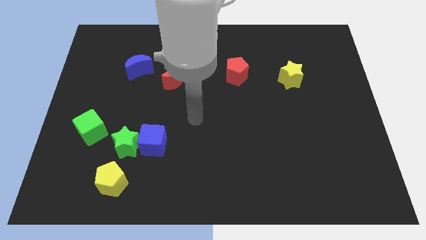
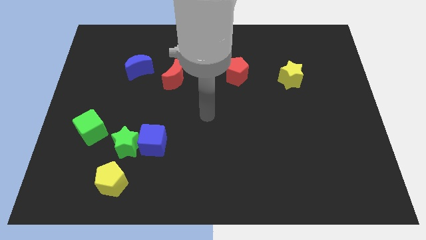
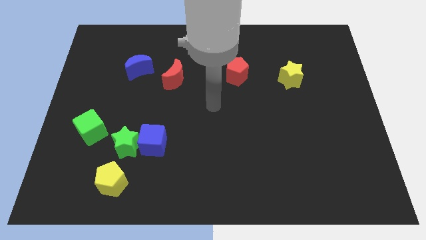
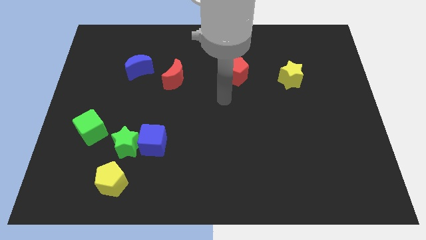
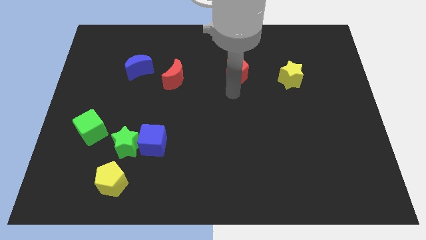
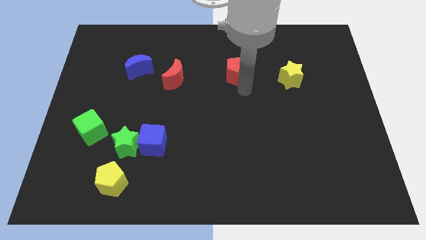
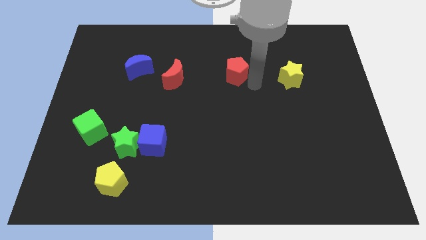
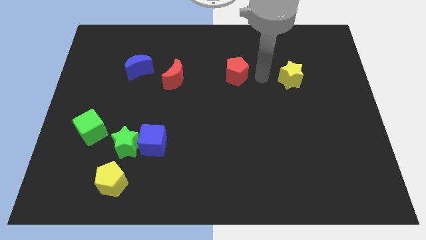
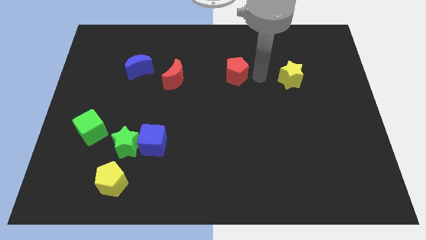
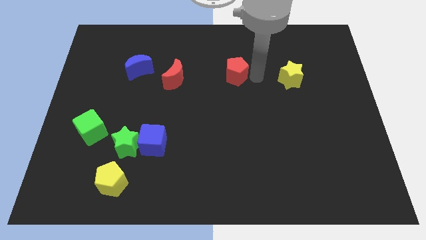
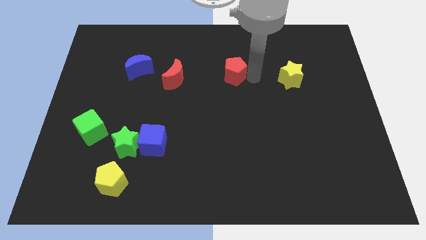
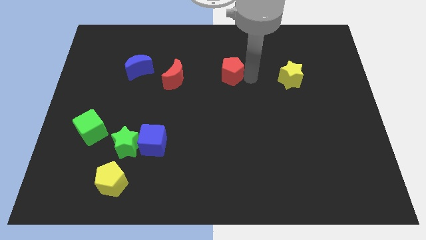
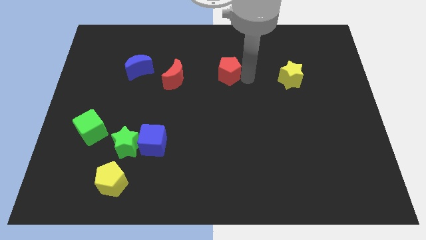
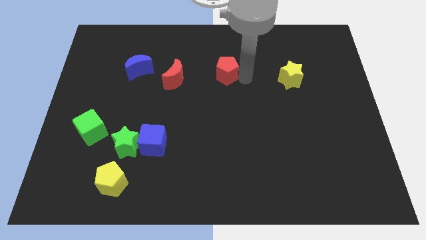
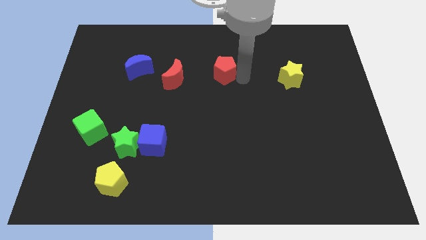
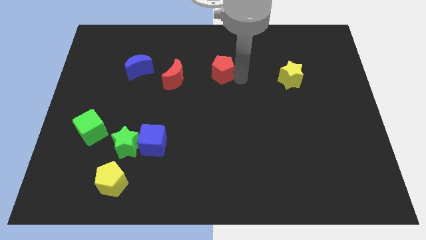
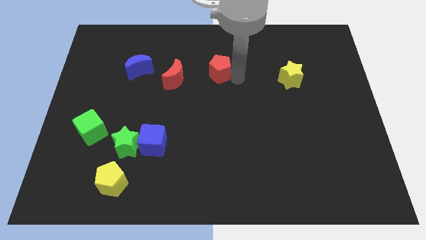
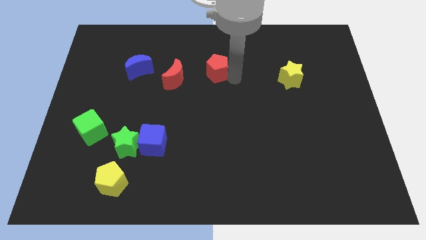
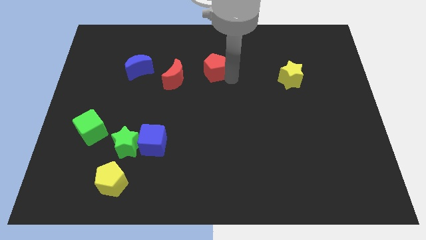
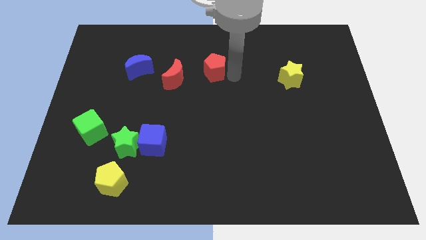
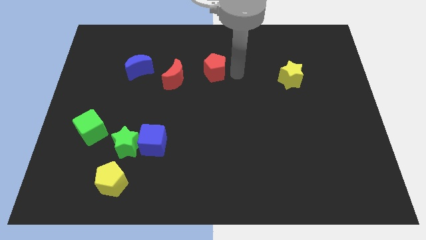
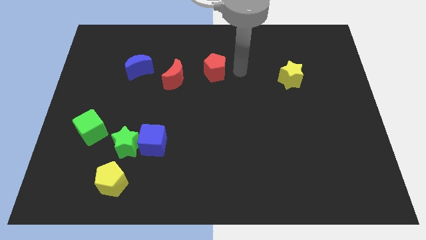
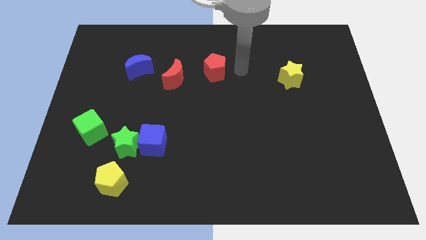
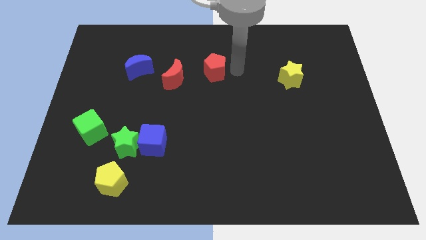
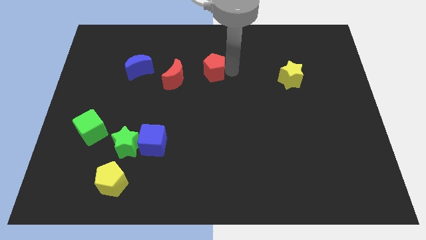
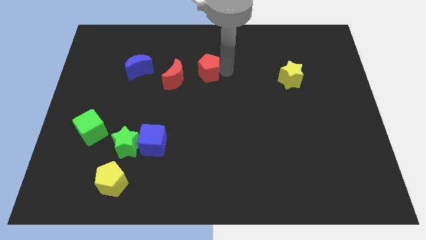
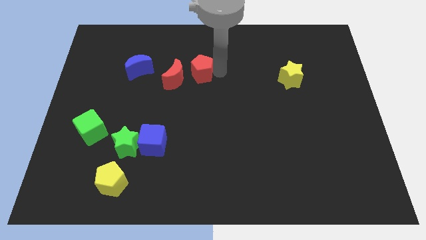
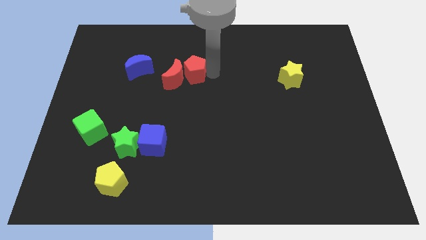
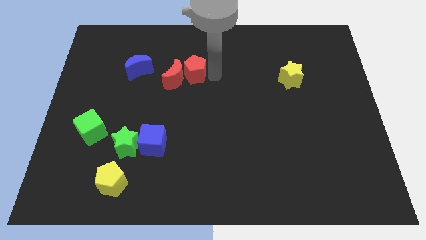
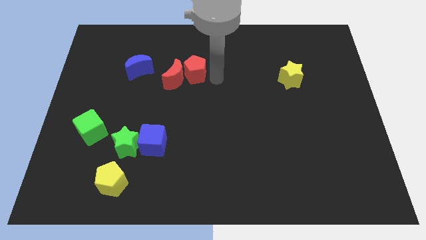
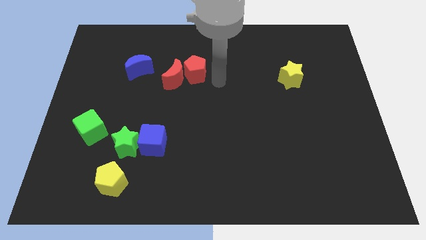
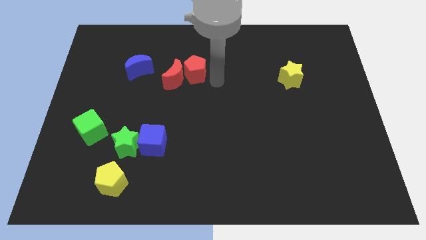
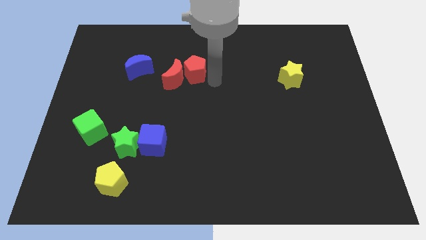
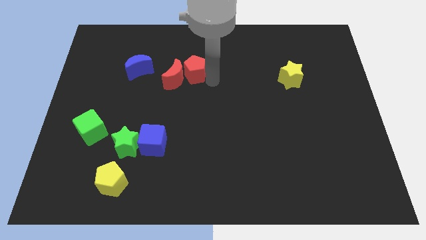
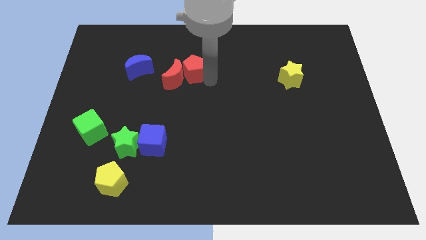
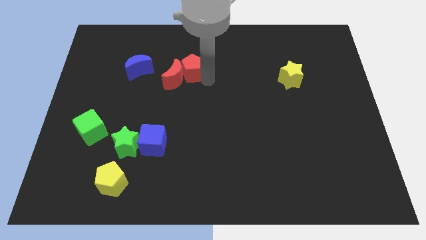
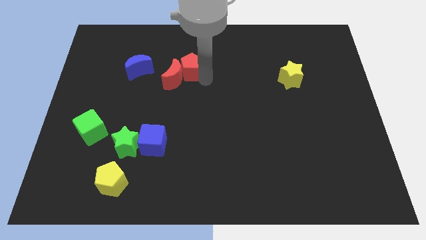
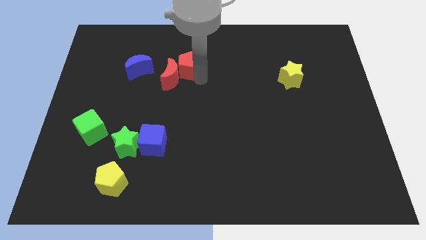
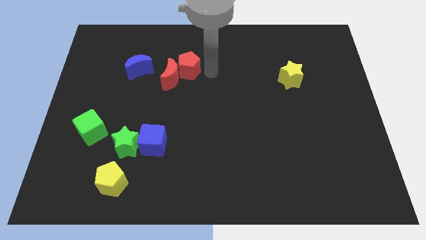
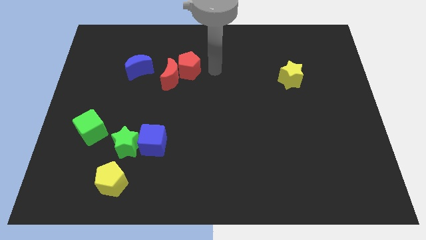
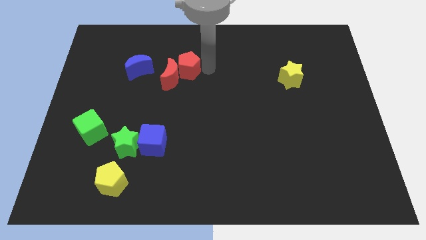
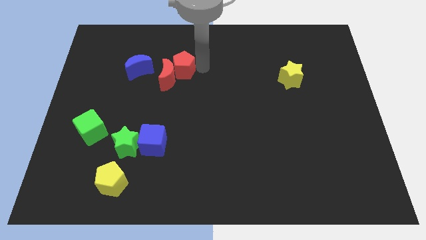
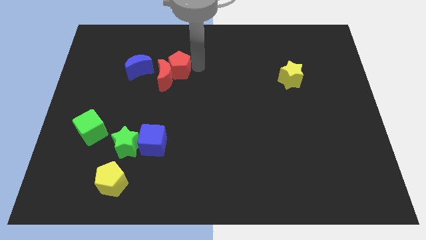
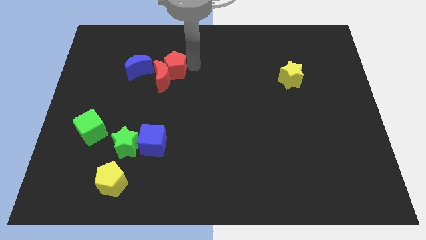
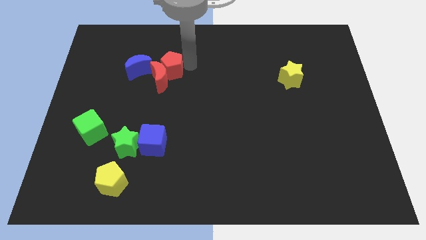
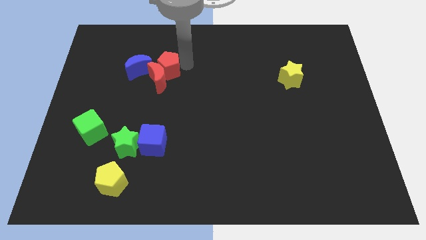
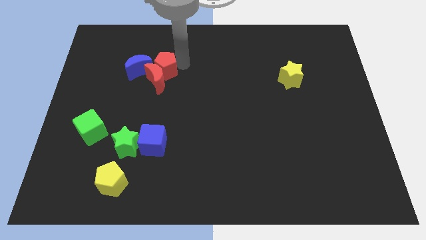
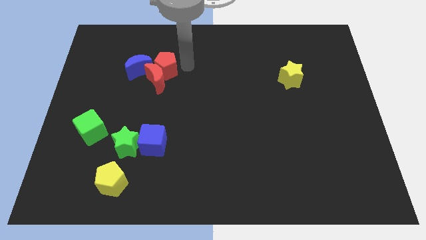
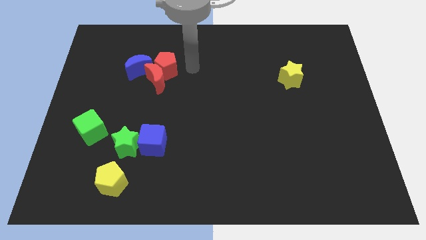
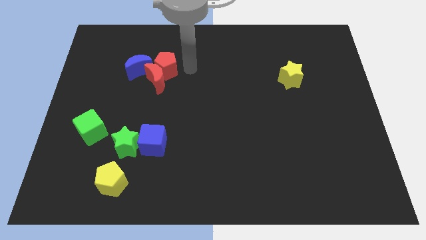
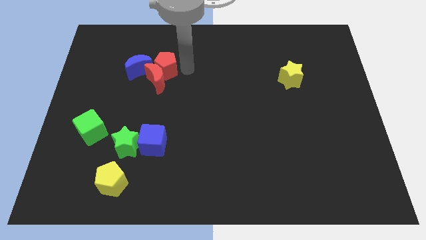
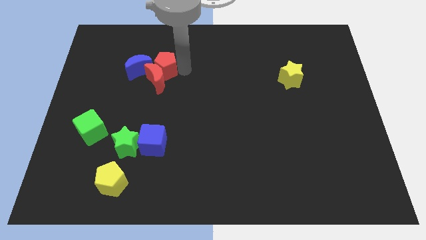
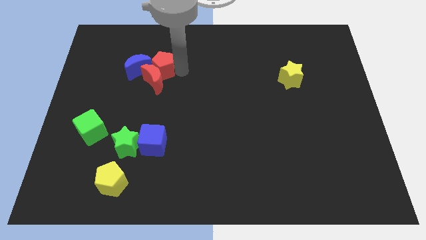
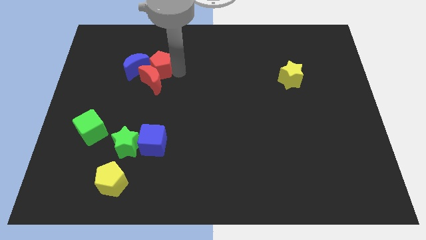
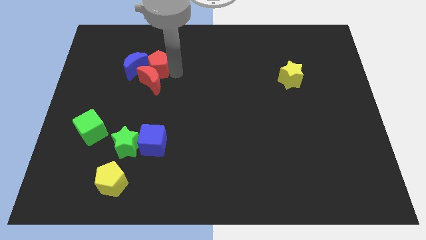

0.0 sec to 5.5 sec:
put the red pentagon towards the blue moon

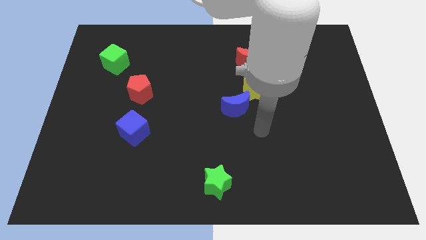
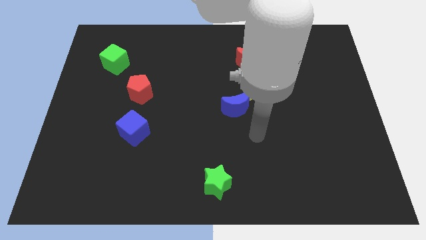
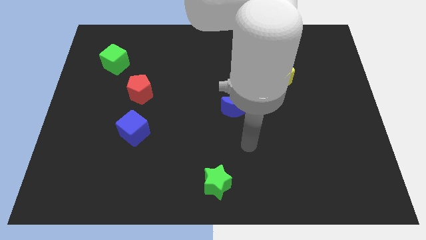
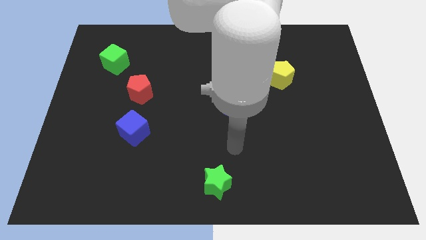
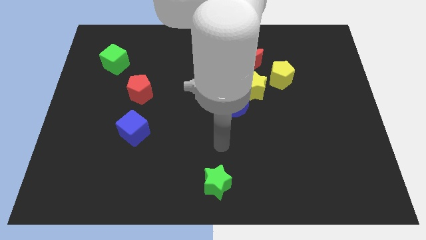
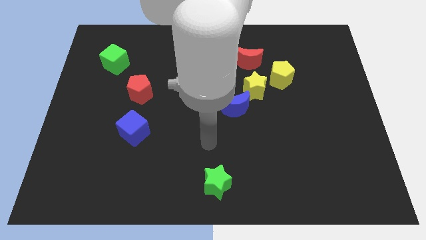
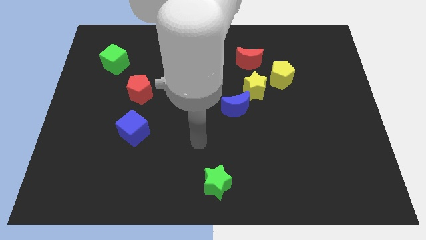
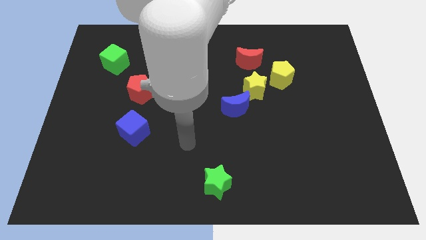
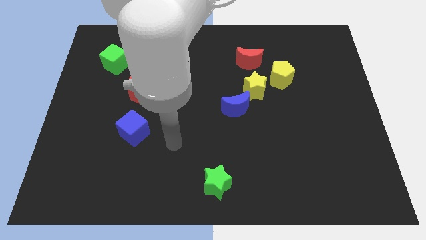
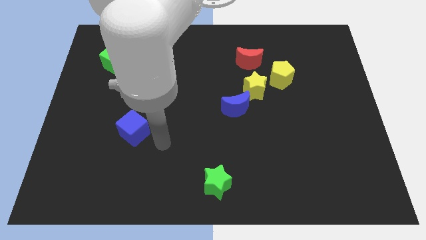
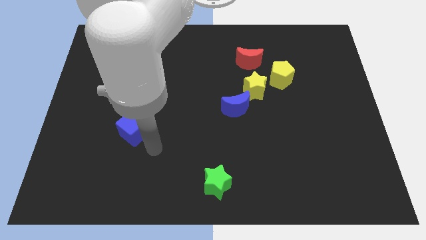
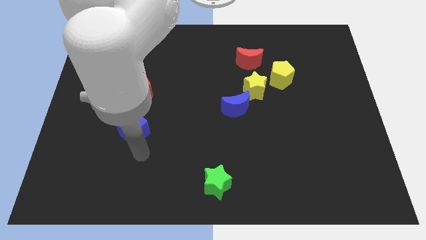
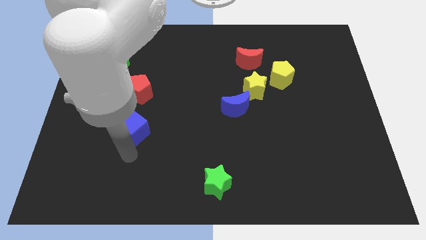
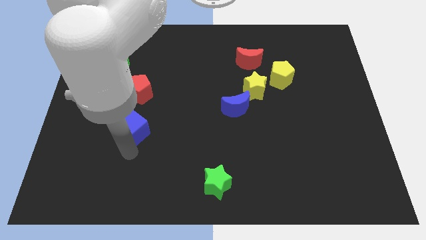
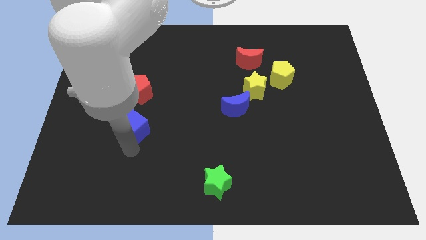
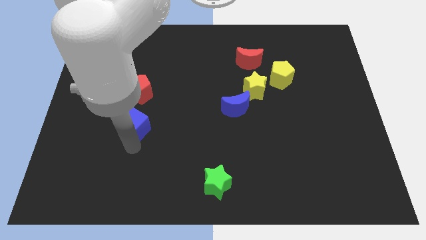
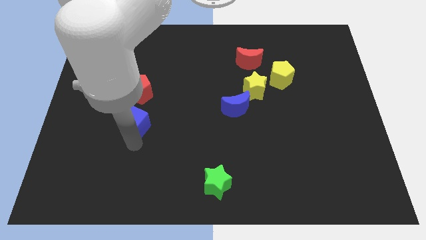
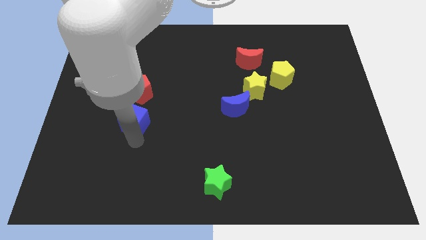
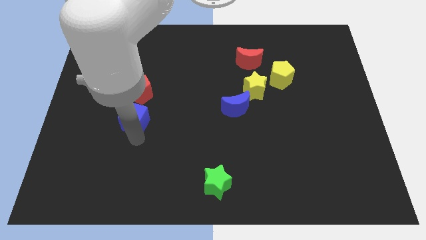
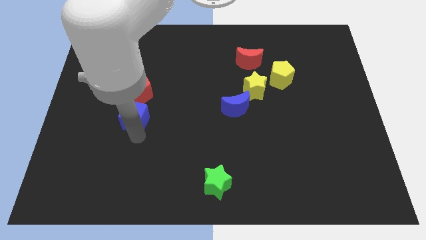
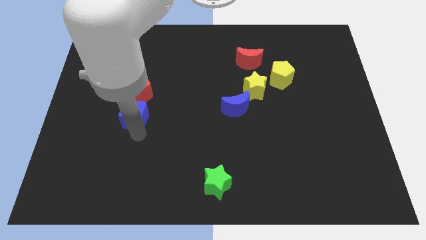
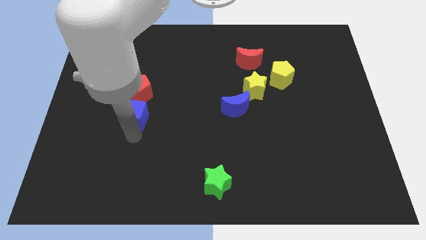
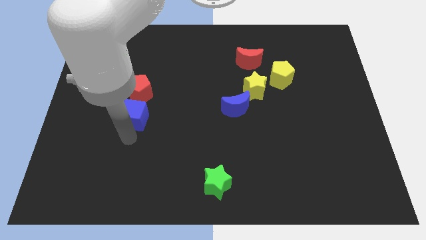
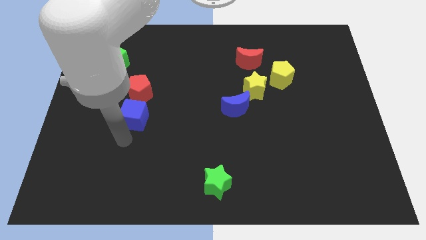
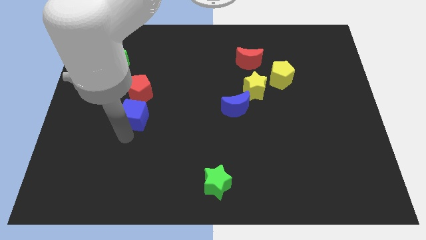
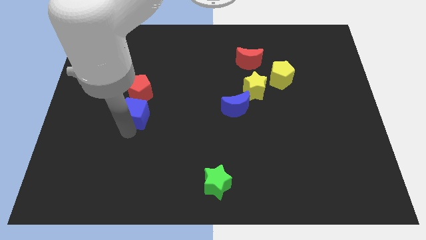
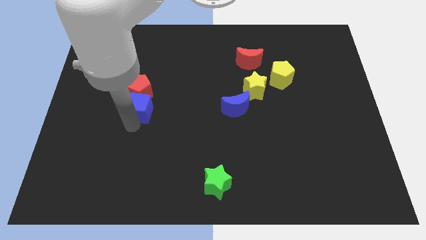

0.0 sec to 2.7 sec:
push the blue cube towards the red pentagon
